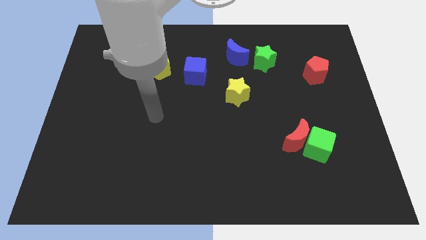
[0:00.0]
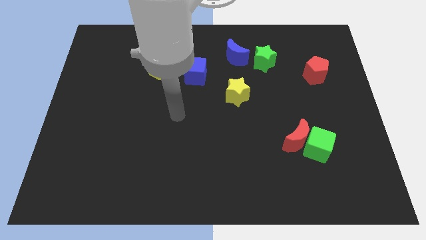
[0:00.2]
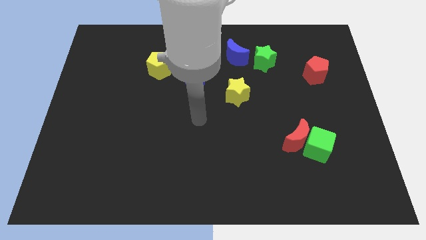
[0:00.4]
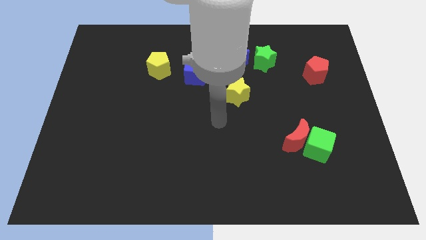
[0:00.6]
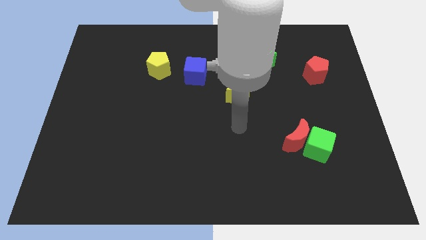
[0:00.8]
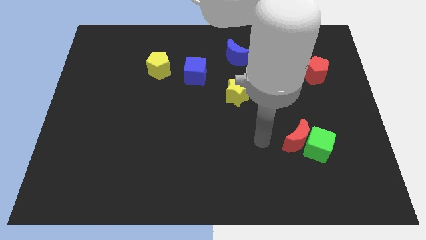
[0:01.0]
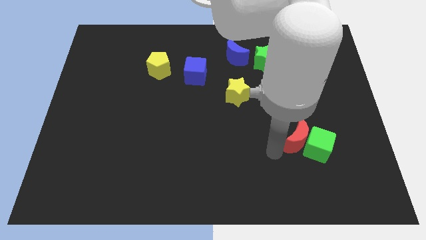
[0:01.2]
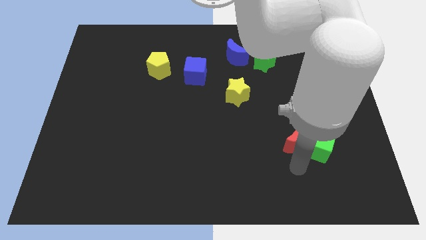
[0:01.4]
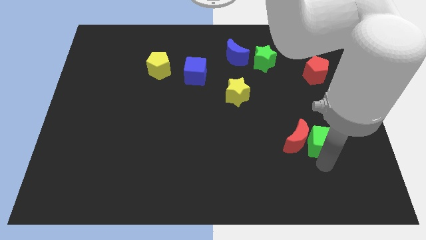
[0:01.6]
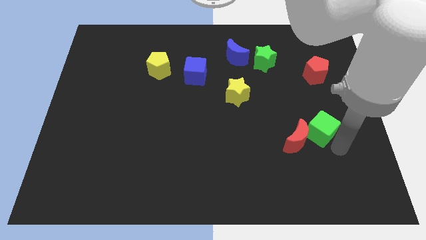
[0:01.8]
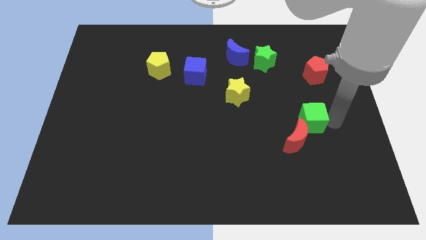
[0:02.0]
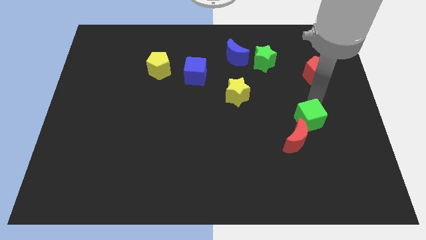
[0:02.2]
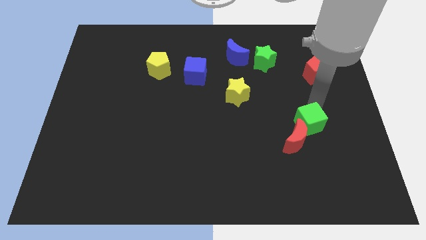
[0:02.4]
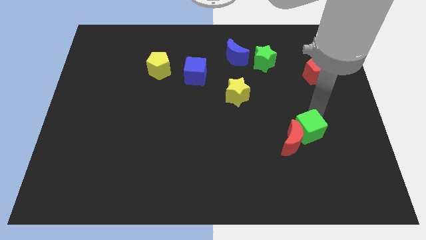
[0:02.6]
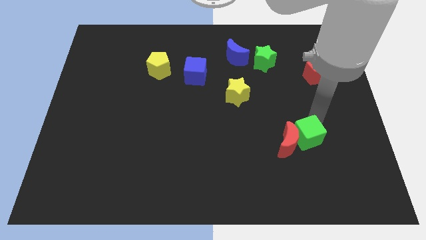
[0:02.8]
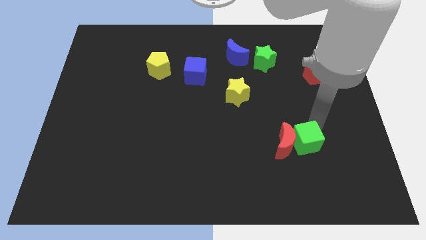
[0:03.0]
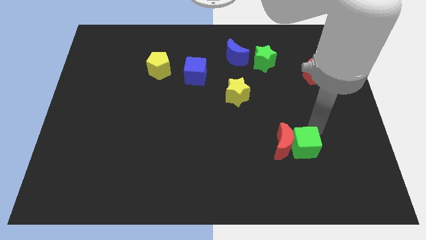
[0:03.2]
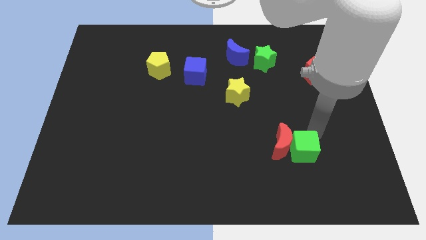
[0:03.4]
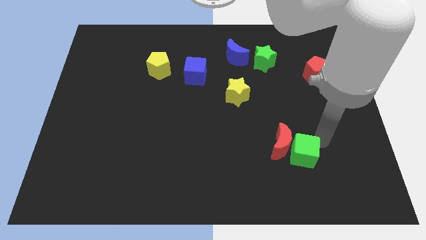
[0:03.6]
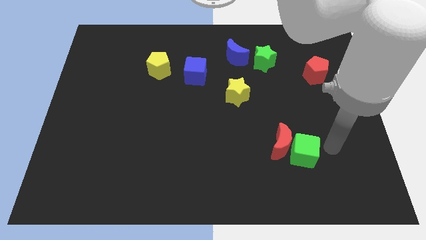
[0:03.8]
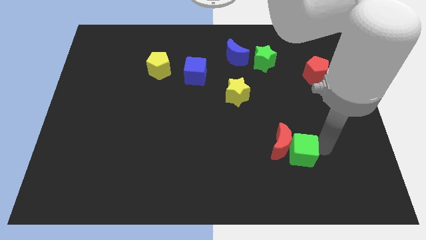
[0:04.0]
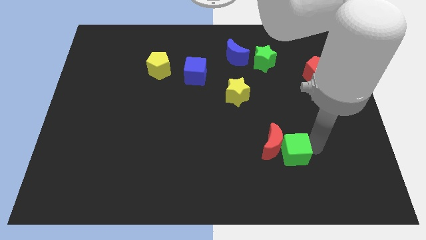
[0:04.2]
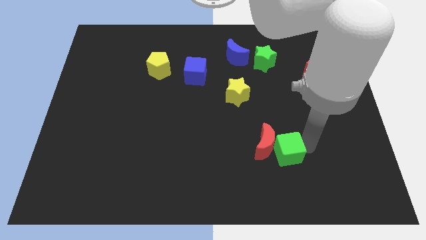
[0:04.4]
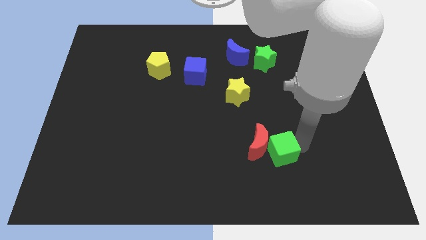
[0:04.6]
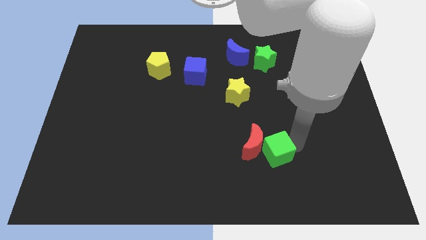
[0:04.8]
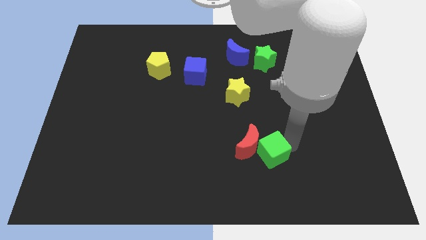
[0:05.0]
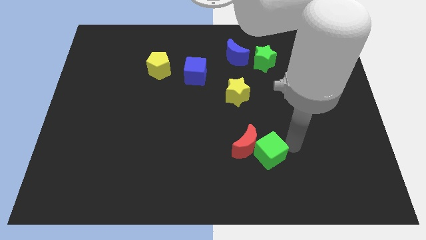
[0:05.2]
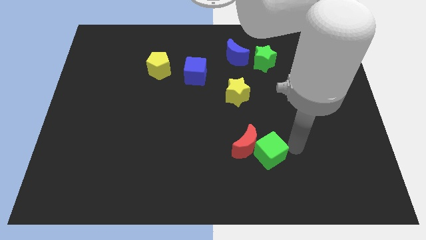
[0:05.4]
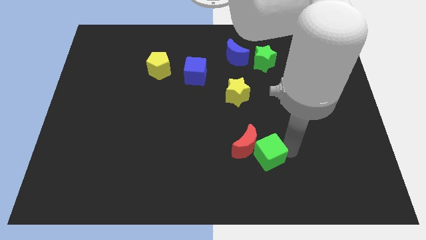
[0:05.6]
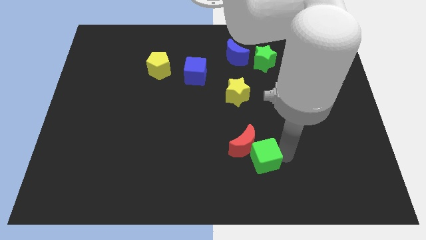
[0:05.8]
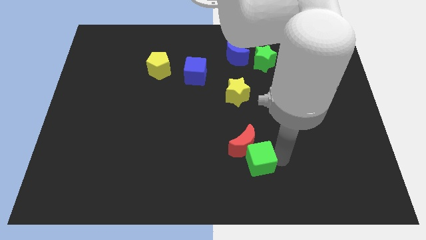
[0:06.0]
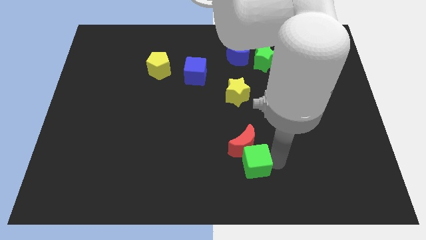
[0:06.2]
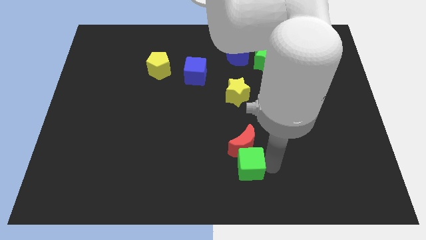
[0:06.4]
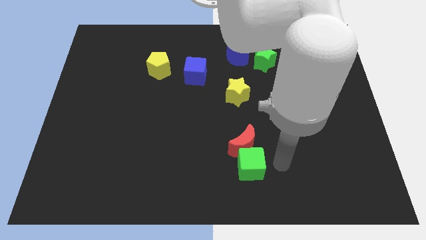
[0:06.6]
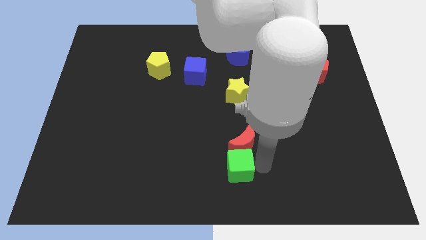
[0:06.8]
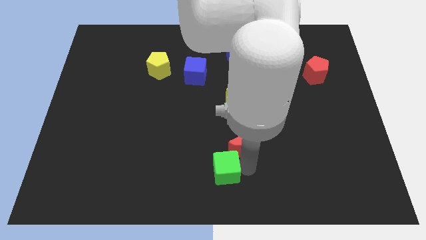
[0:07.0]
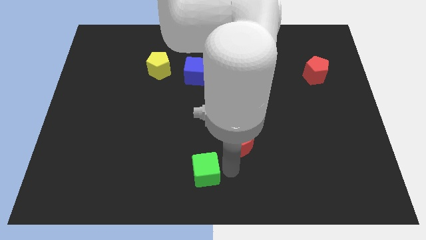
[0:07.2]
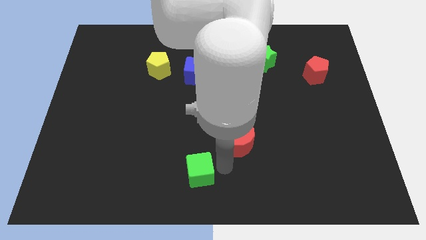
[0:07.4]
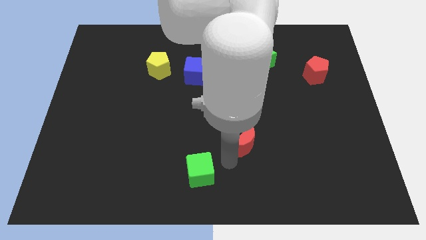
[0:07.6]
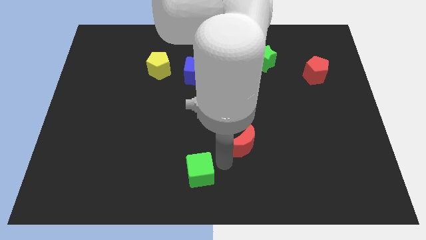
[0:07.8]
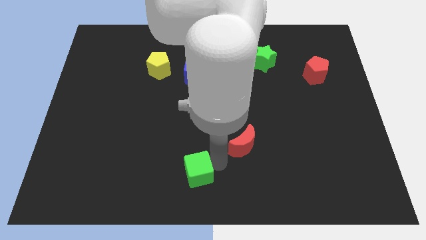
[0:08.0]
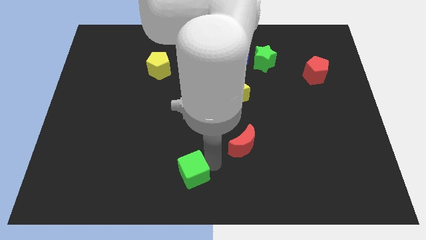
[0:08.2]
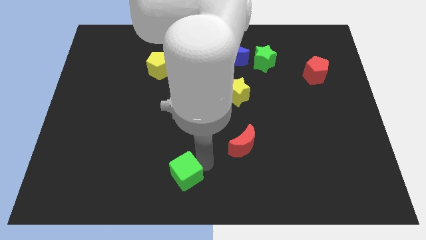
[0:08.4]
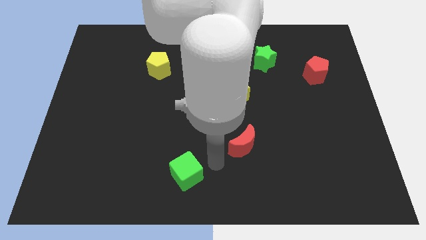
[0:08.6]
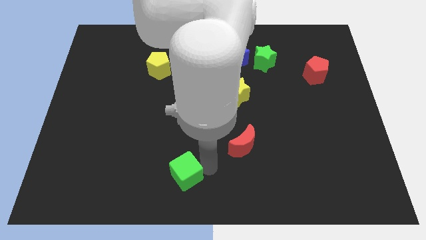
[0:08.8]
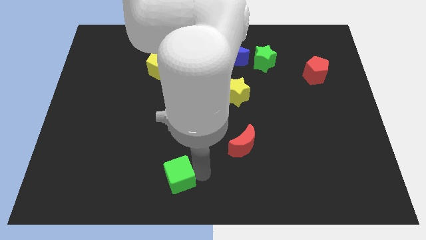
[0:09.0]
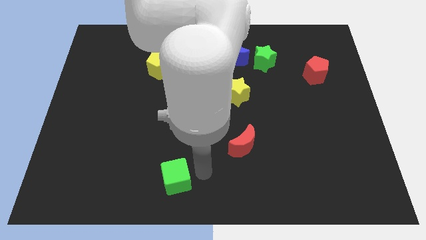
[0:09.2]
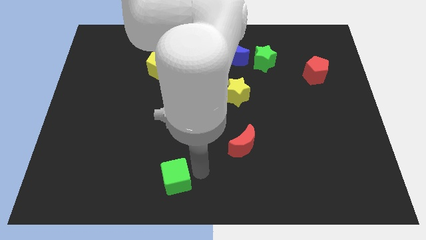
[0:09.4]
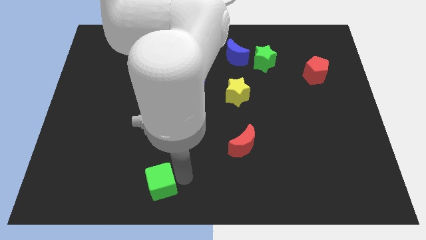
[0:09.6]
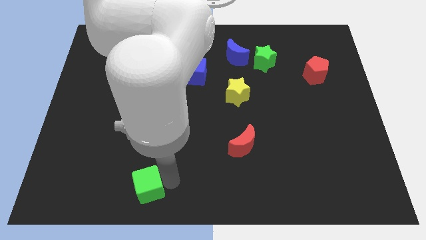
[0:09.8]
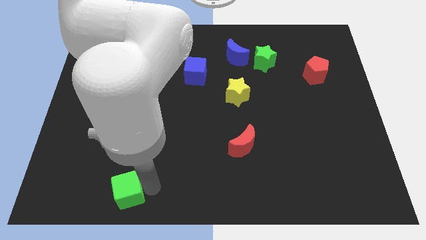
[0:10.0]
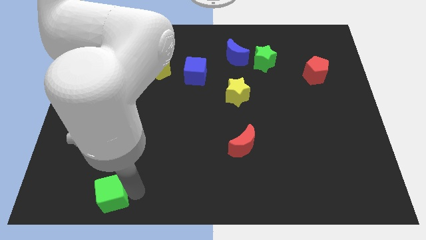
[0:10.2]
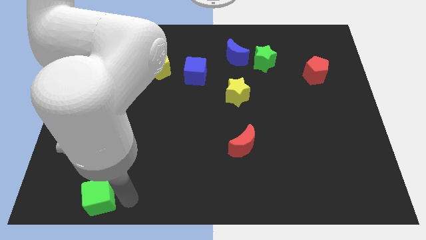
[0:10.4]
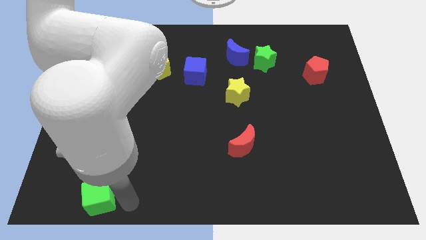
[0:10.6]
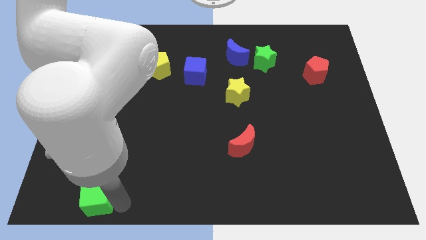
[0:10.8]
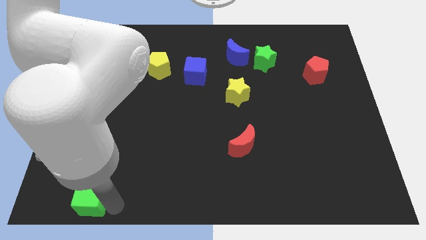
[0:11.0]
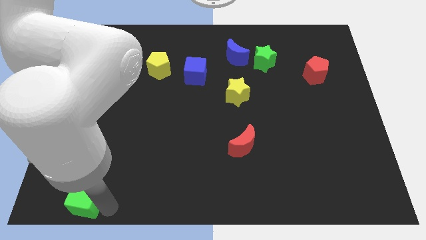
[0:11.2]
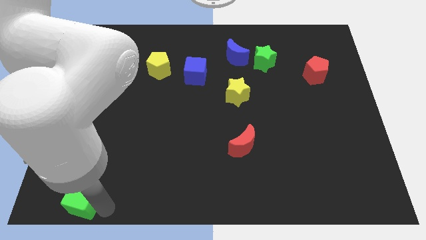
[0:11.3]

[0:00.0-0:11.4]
put the green cube to the lower left corner
